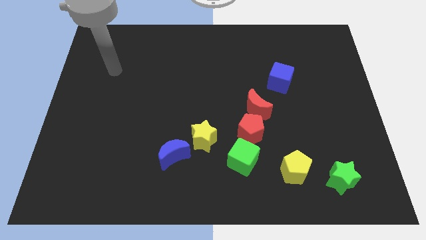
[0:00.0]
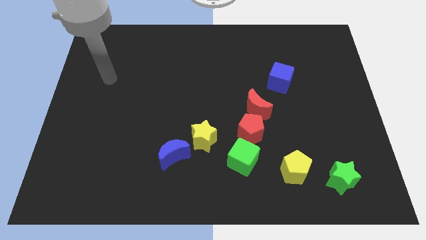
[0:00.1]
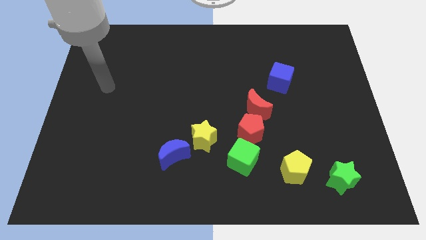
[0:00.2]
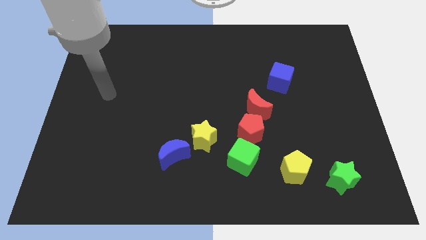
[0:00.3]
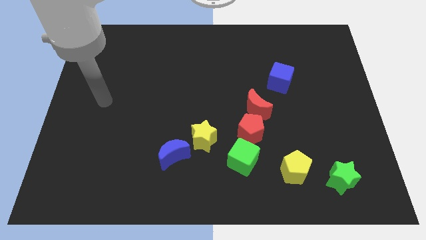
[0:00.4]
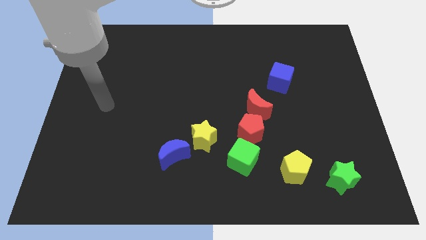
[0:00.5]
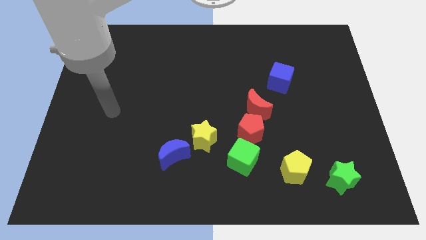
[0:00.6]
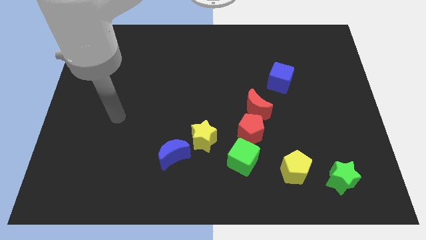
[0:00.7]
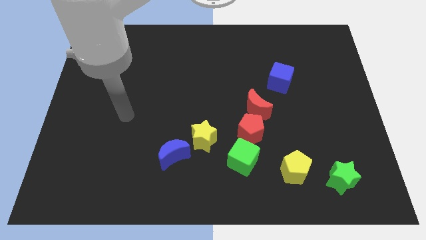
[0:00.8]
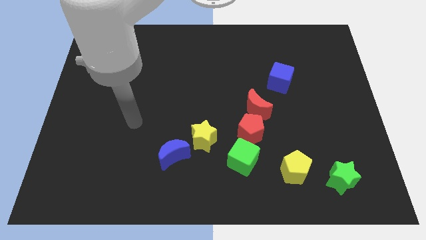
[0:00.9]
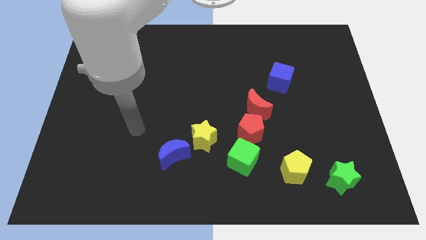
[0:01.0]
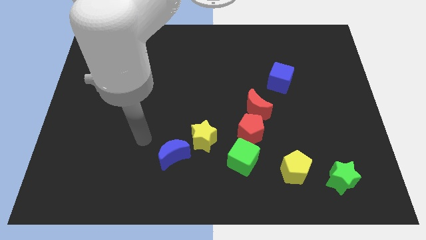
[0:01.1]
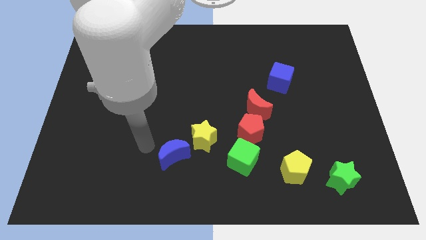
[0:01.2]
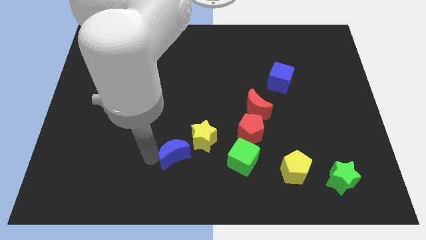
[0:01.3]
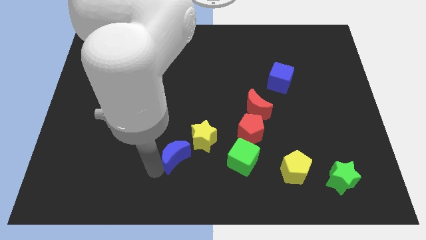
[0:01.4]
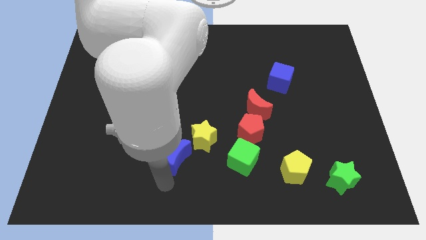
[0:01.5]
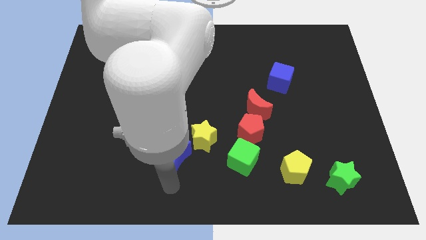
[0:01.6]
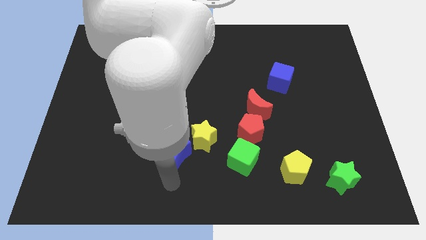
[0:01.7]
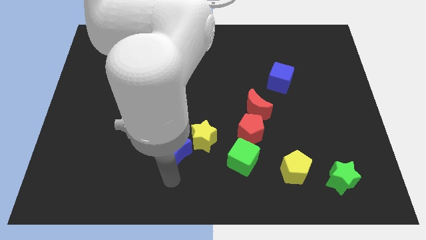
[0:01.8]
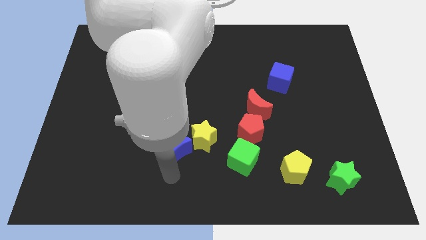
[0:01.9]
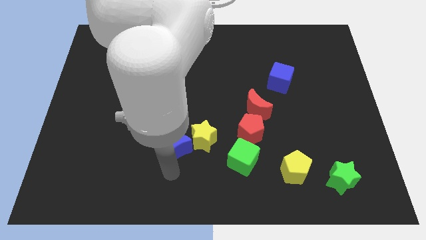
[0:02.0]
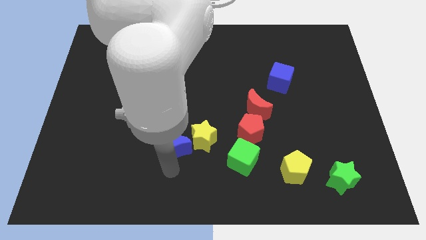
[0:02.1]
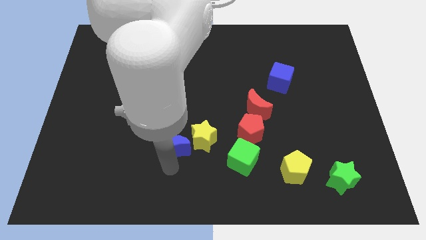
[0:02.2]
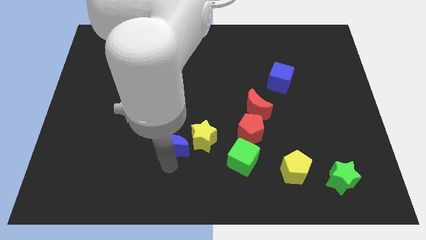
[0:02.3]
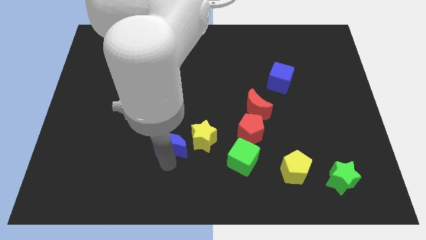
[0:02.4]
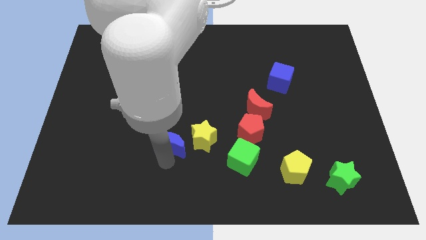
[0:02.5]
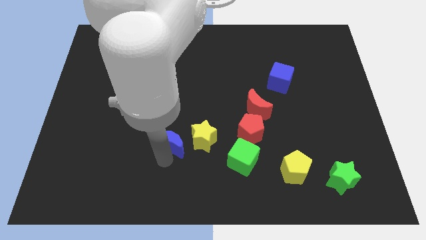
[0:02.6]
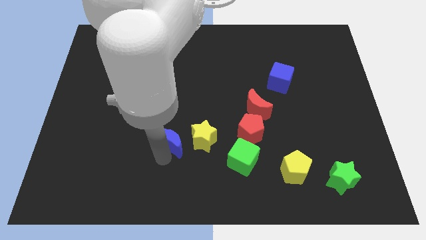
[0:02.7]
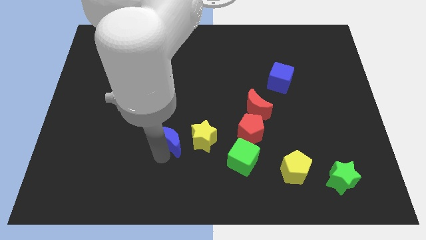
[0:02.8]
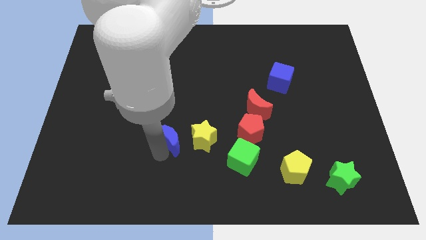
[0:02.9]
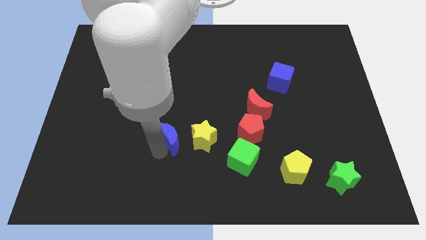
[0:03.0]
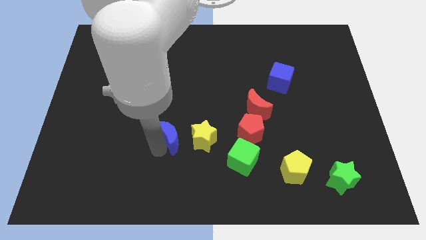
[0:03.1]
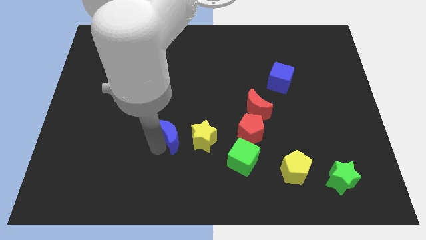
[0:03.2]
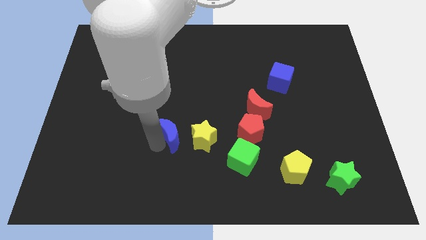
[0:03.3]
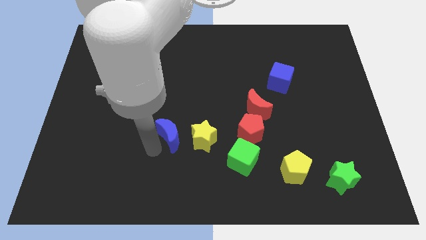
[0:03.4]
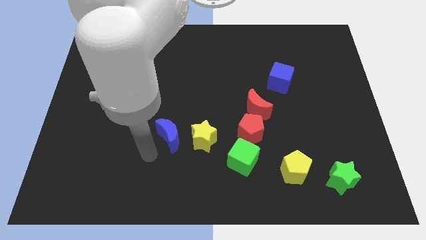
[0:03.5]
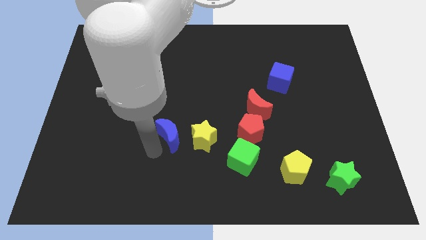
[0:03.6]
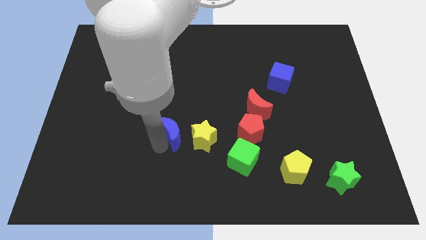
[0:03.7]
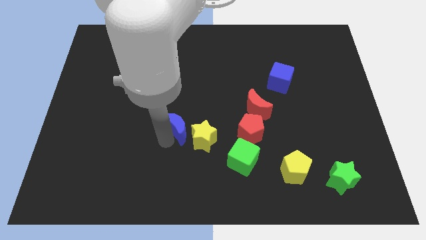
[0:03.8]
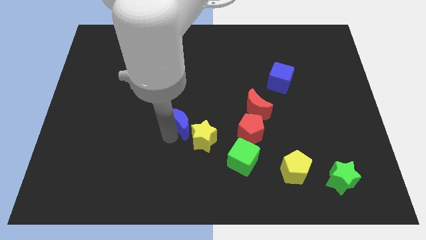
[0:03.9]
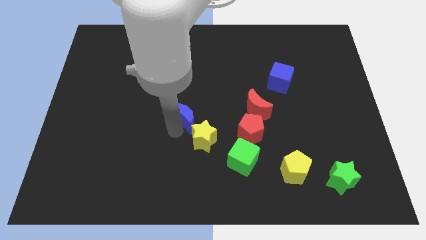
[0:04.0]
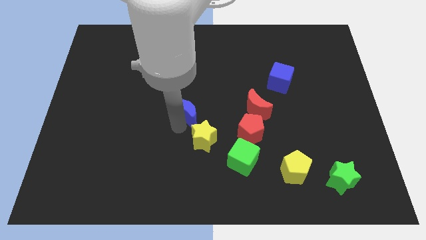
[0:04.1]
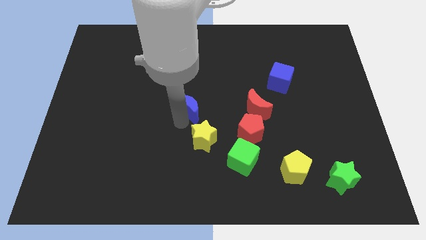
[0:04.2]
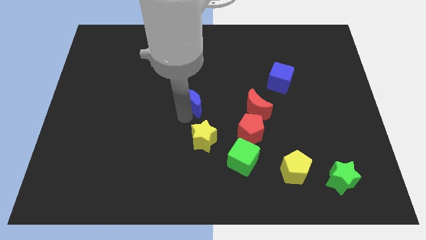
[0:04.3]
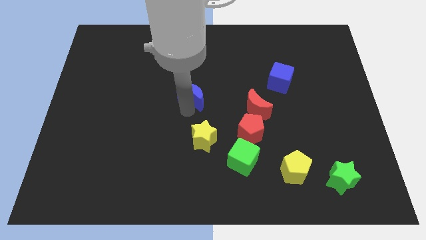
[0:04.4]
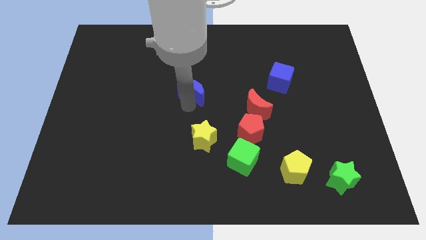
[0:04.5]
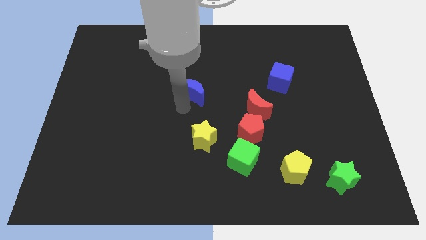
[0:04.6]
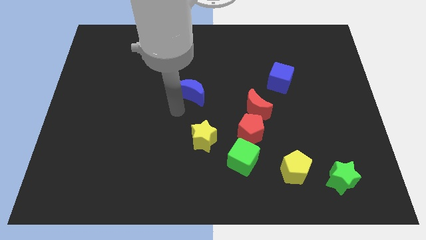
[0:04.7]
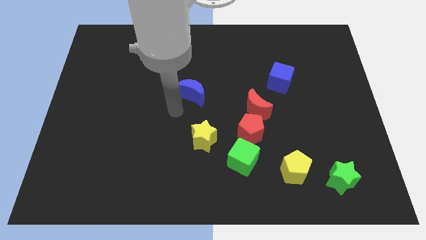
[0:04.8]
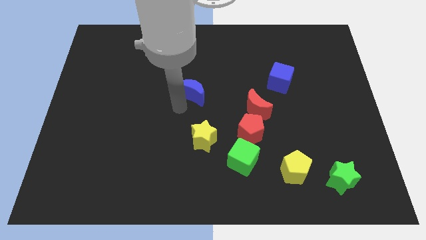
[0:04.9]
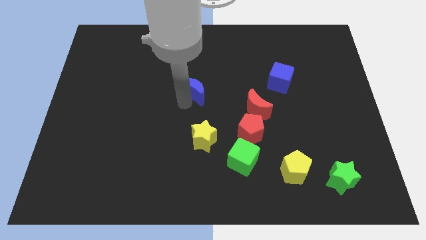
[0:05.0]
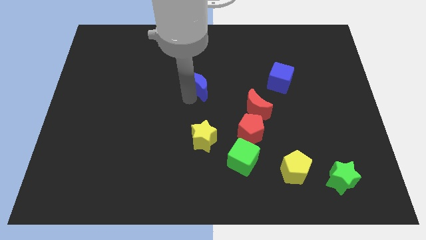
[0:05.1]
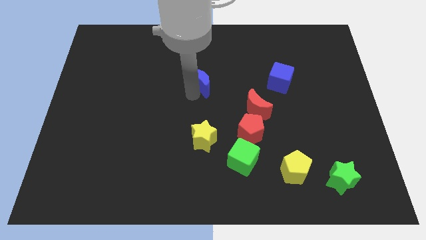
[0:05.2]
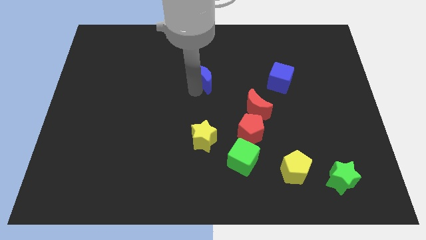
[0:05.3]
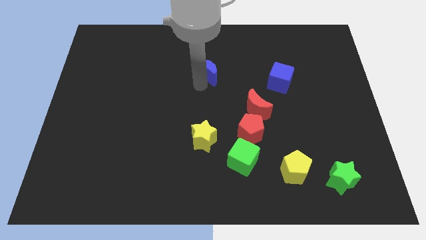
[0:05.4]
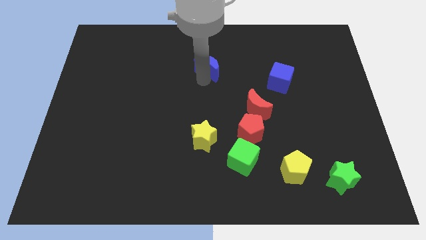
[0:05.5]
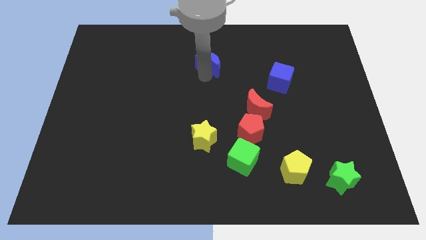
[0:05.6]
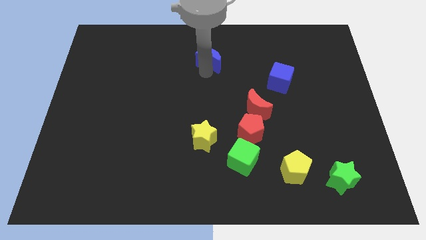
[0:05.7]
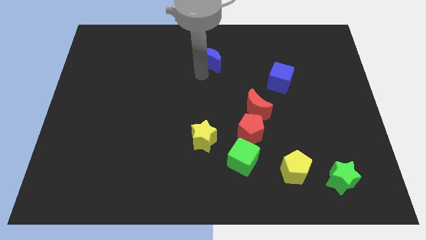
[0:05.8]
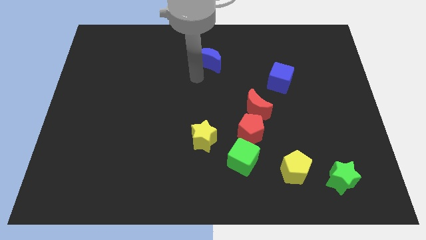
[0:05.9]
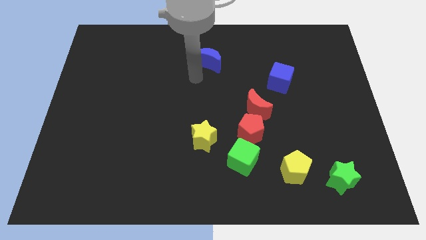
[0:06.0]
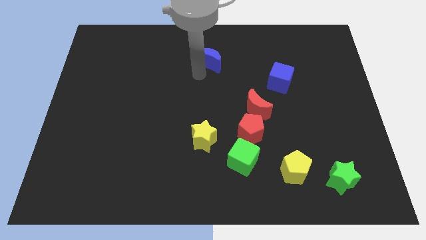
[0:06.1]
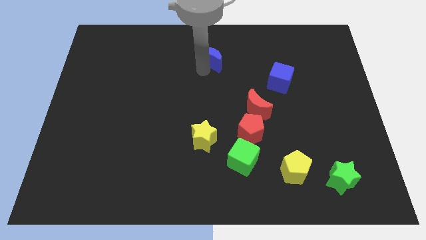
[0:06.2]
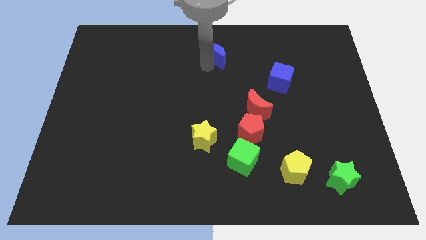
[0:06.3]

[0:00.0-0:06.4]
move the blue moon to the towards your base

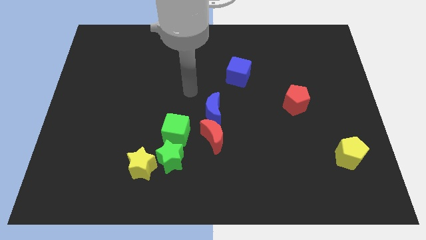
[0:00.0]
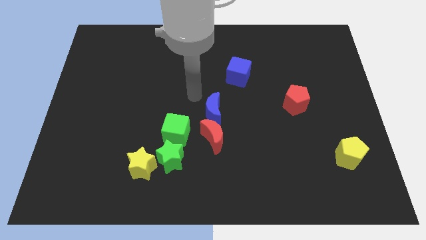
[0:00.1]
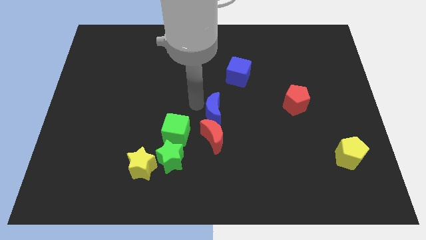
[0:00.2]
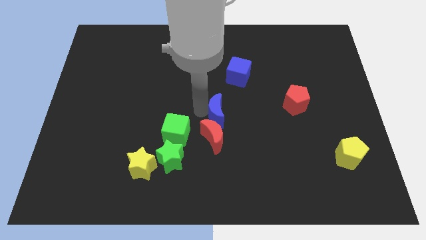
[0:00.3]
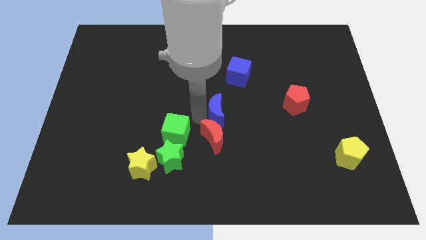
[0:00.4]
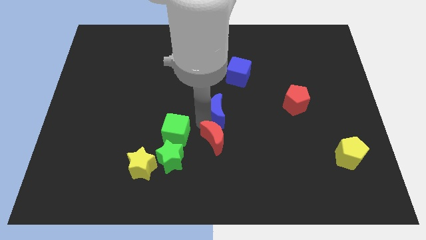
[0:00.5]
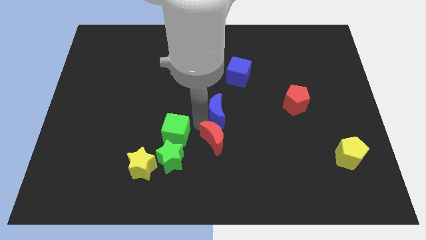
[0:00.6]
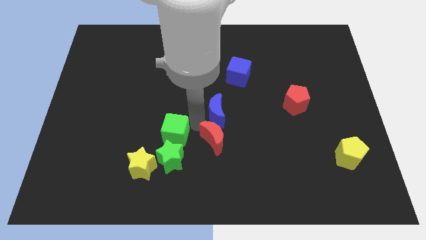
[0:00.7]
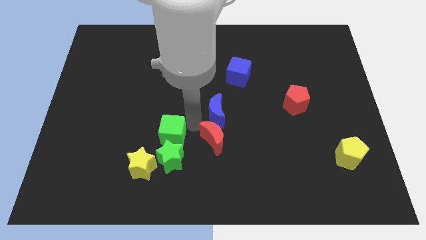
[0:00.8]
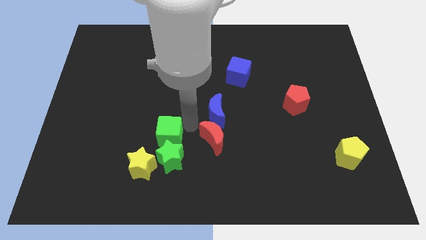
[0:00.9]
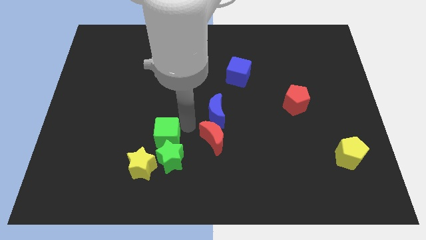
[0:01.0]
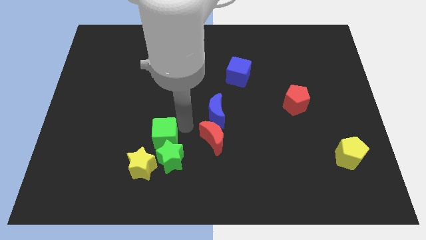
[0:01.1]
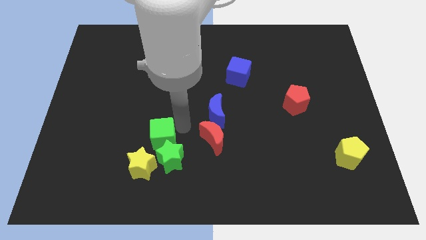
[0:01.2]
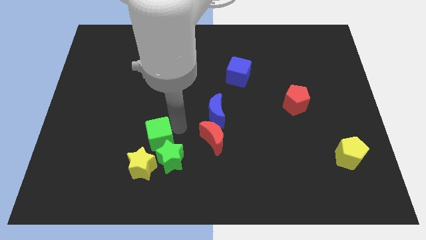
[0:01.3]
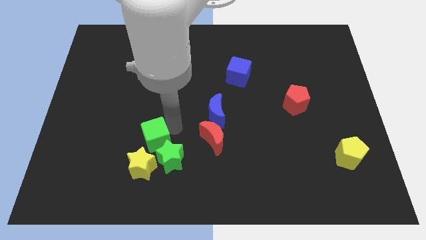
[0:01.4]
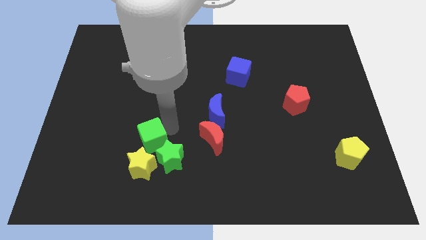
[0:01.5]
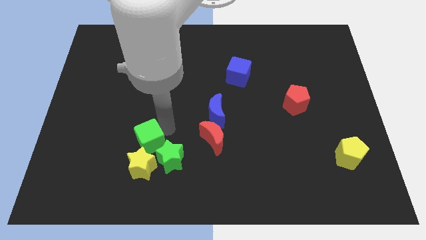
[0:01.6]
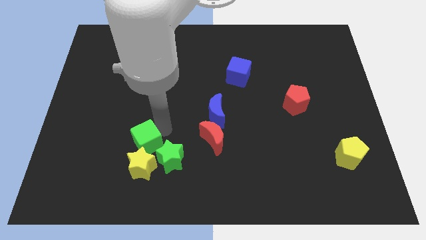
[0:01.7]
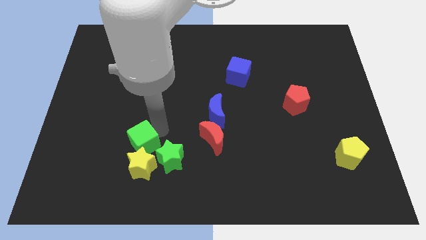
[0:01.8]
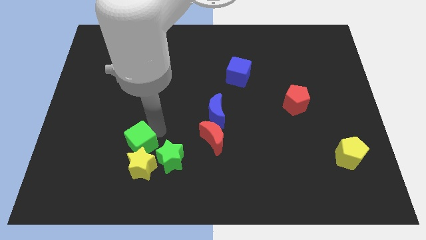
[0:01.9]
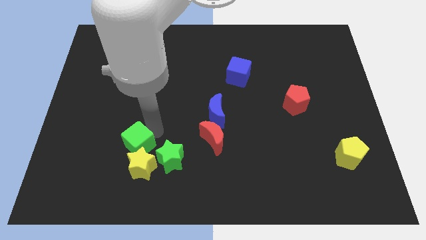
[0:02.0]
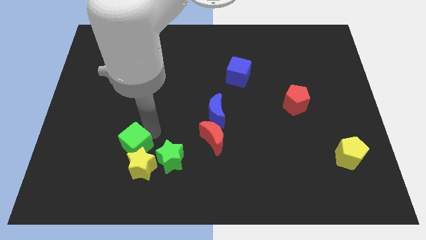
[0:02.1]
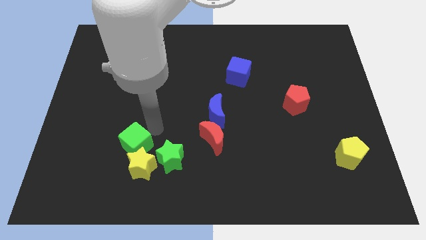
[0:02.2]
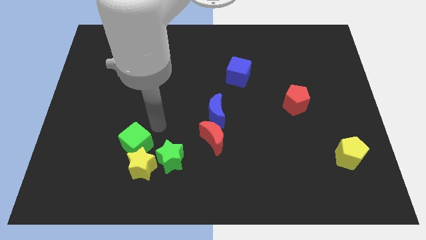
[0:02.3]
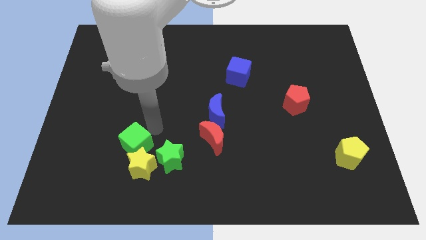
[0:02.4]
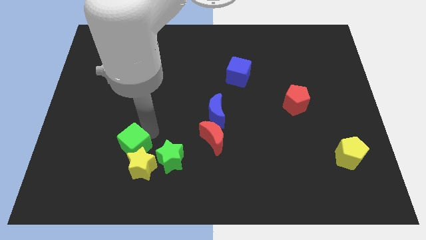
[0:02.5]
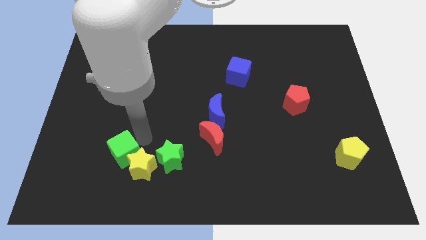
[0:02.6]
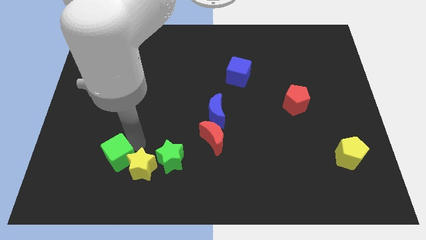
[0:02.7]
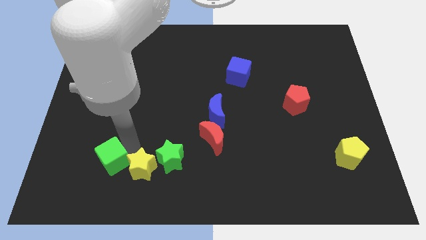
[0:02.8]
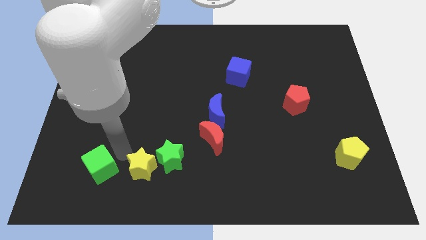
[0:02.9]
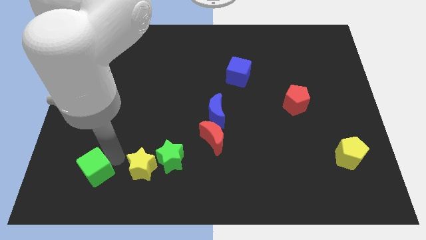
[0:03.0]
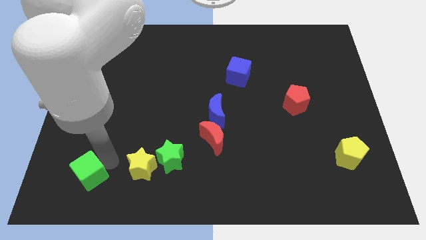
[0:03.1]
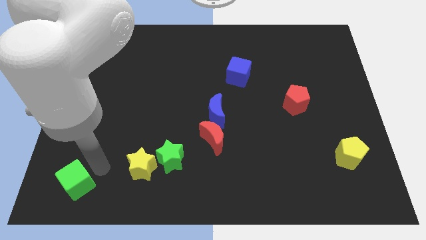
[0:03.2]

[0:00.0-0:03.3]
put the green cube to the lower left corner
